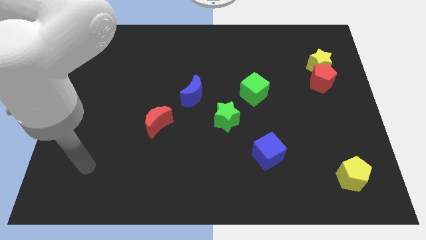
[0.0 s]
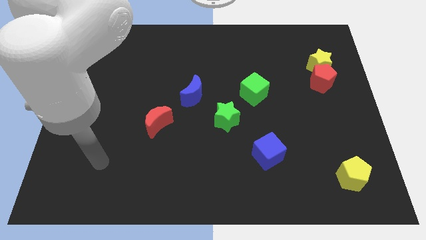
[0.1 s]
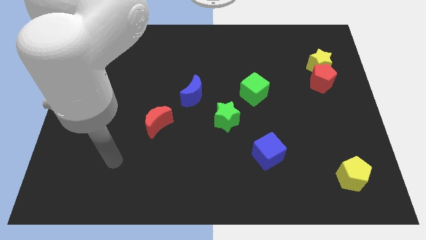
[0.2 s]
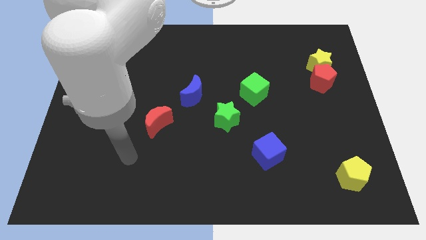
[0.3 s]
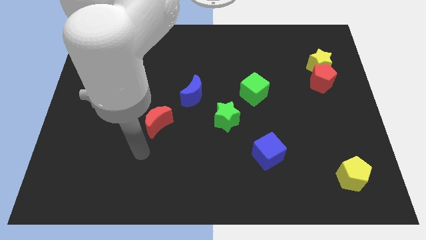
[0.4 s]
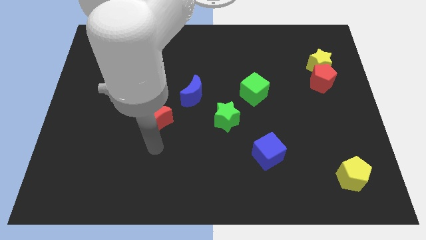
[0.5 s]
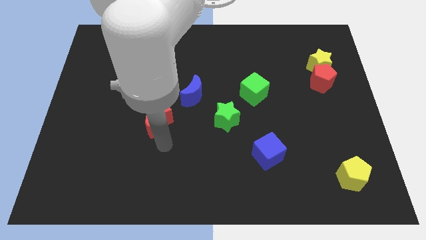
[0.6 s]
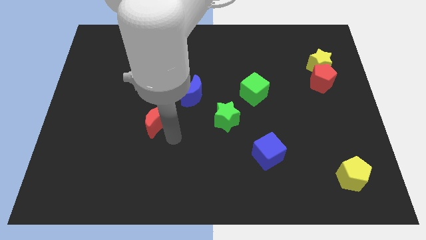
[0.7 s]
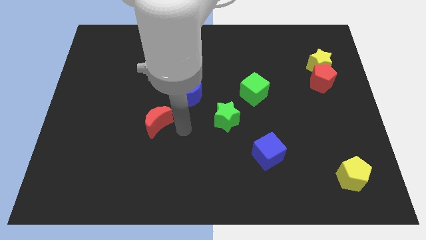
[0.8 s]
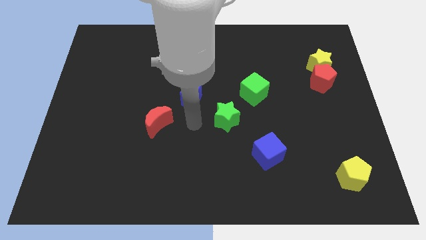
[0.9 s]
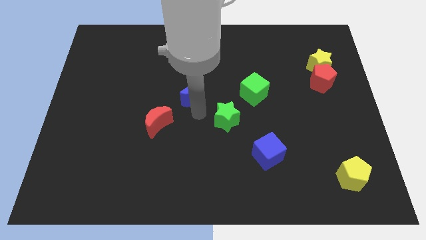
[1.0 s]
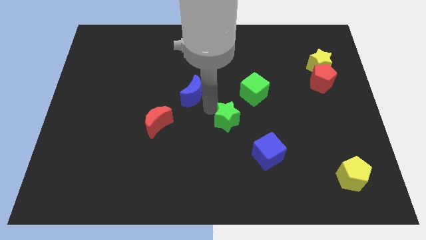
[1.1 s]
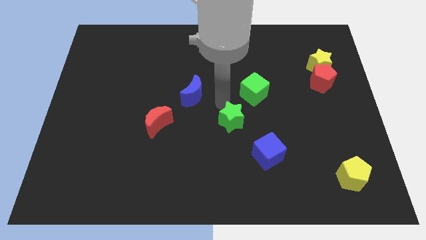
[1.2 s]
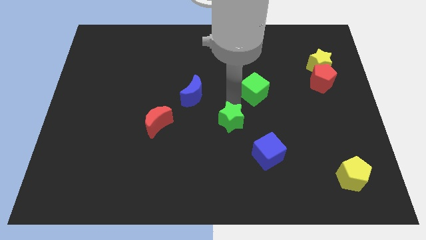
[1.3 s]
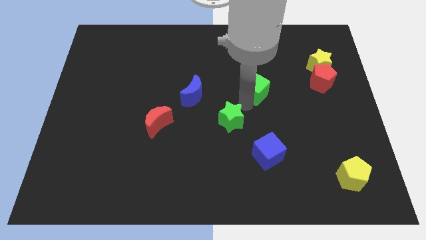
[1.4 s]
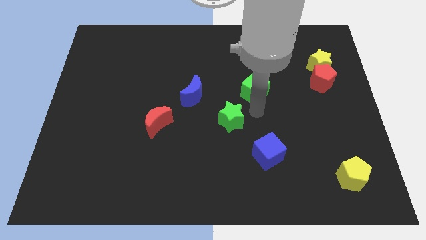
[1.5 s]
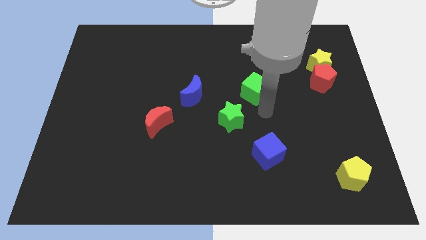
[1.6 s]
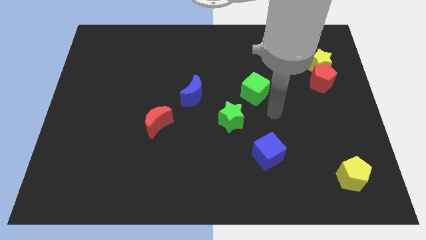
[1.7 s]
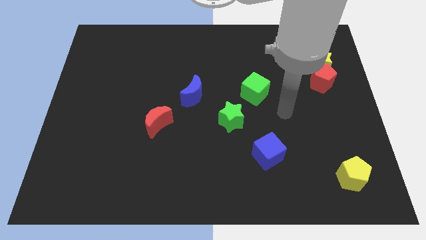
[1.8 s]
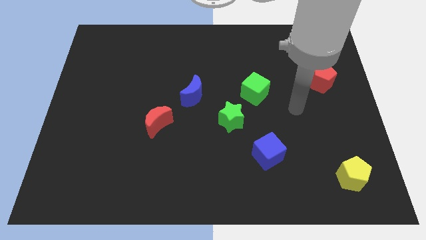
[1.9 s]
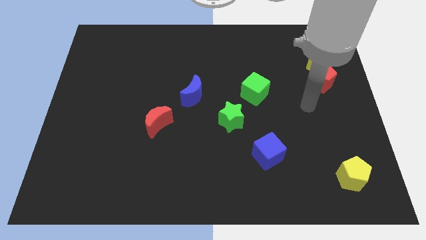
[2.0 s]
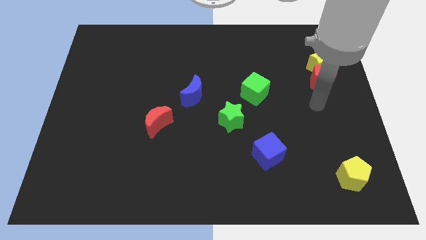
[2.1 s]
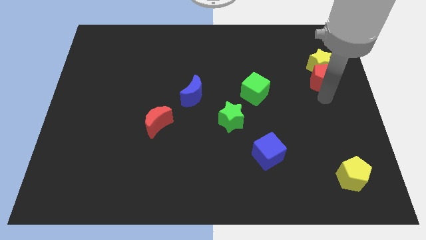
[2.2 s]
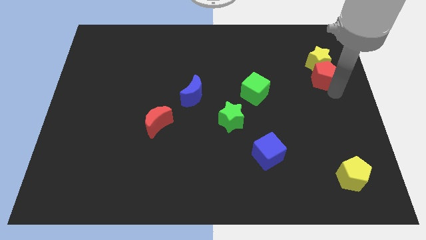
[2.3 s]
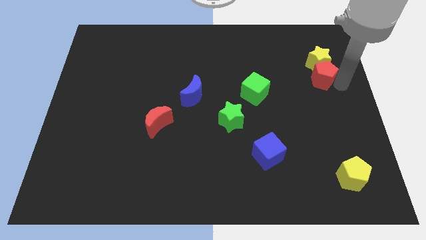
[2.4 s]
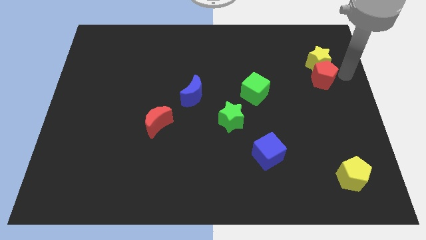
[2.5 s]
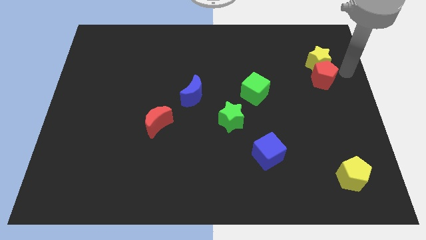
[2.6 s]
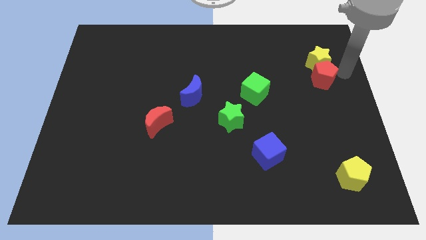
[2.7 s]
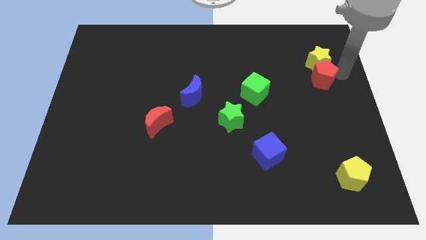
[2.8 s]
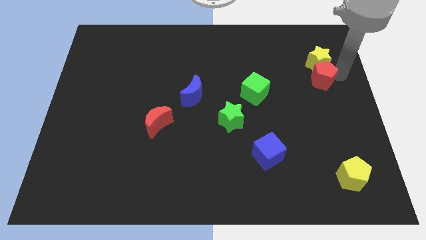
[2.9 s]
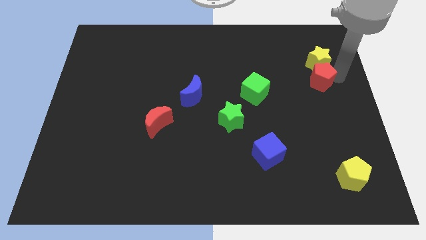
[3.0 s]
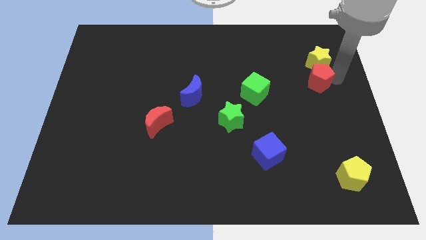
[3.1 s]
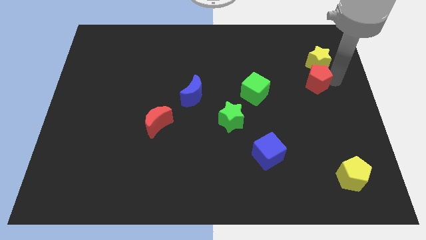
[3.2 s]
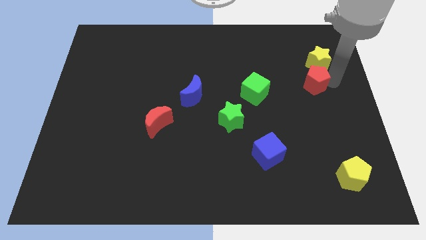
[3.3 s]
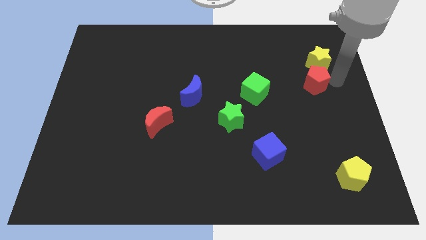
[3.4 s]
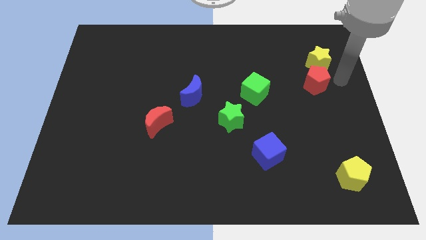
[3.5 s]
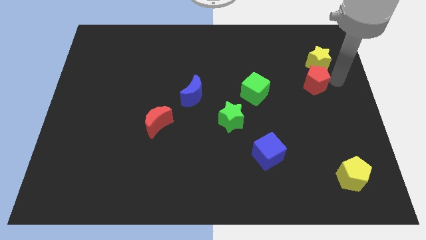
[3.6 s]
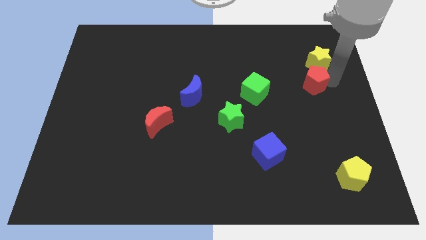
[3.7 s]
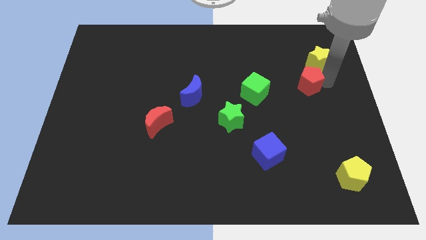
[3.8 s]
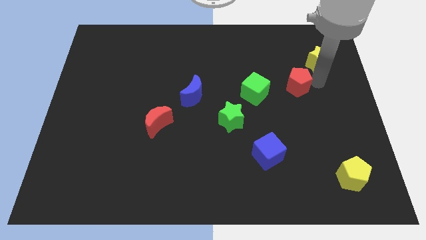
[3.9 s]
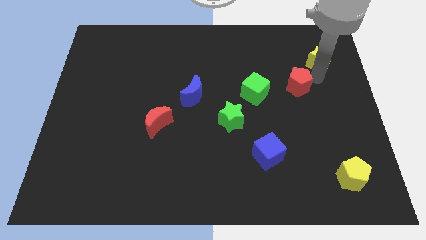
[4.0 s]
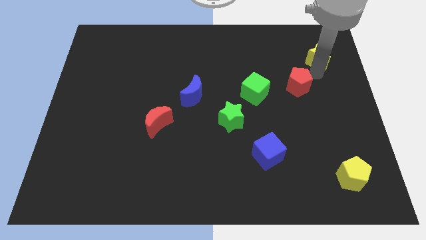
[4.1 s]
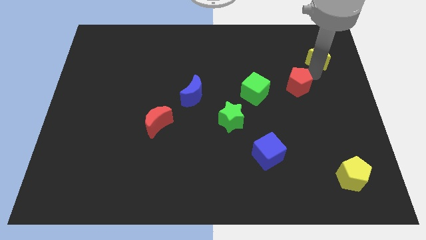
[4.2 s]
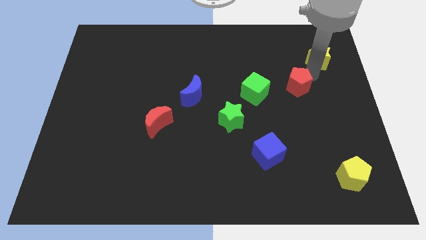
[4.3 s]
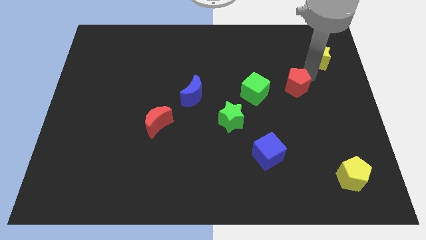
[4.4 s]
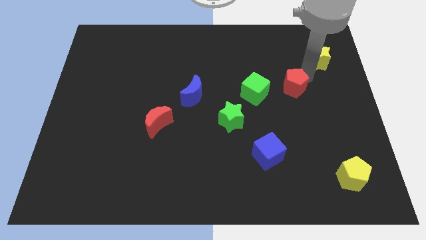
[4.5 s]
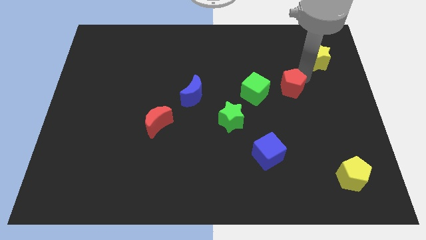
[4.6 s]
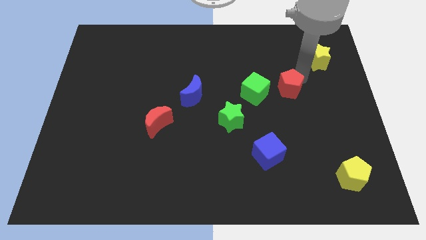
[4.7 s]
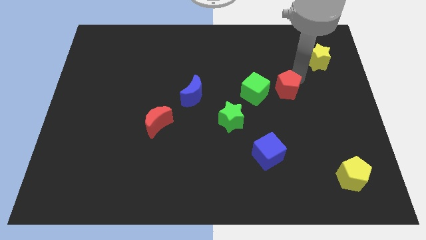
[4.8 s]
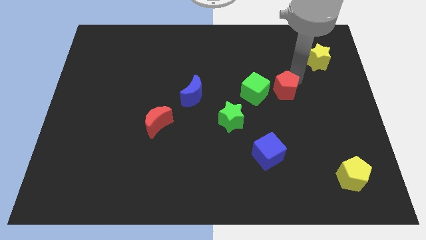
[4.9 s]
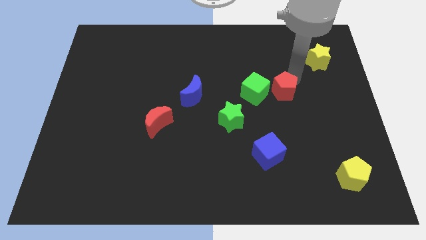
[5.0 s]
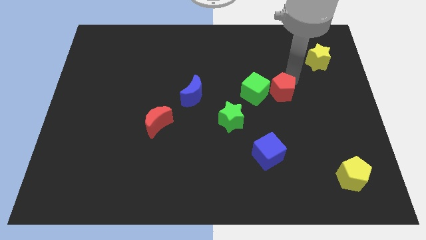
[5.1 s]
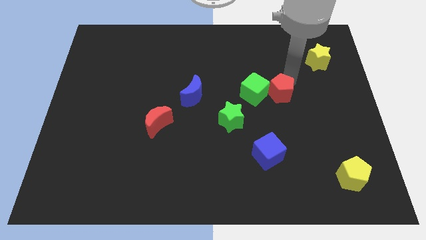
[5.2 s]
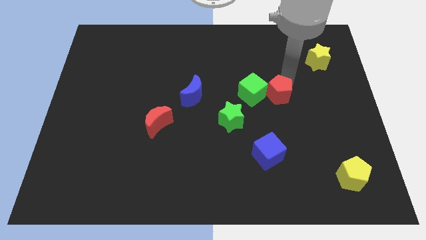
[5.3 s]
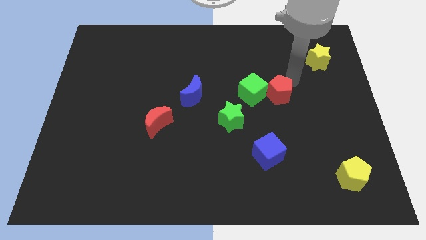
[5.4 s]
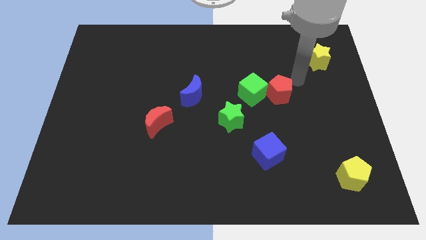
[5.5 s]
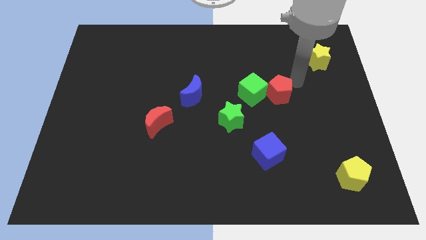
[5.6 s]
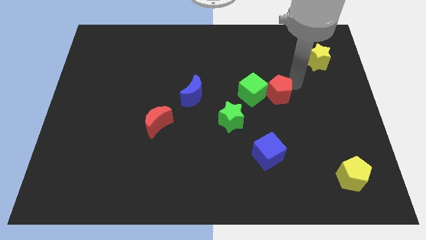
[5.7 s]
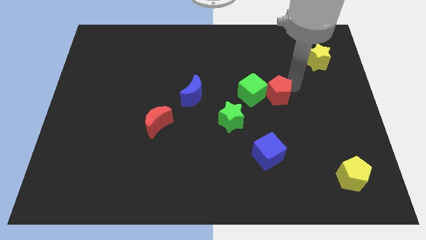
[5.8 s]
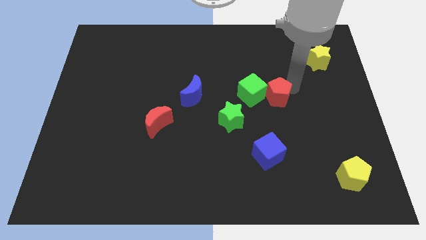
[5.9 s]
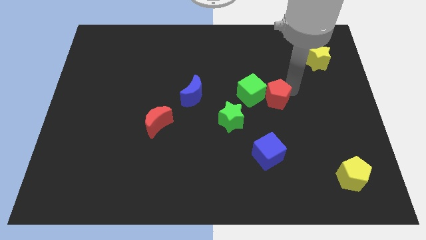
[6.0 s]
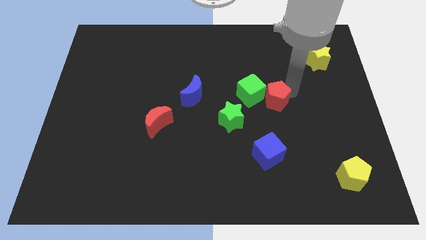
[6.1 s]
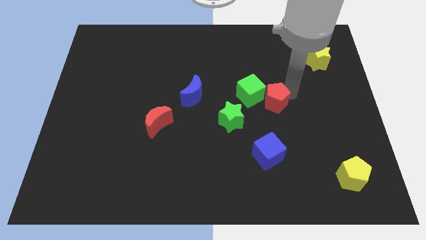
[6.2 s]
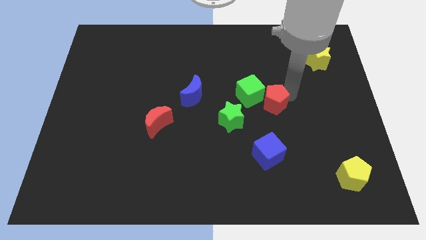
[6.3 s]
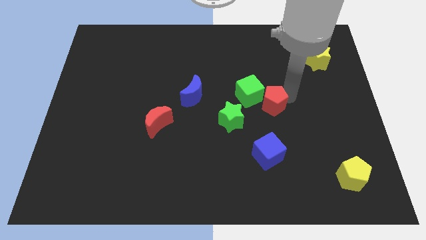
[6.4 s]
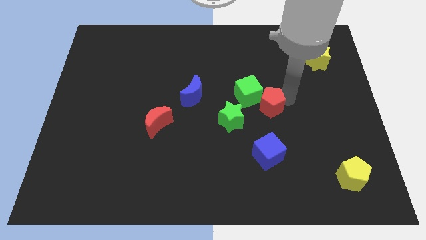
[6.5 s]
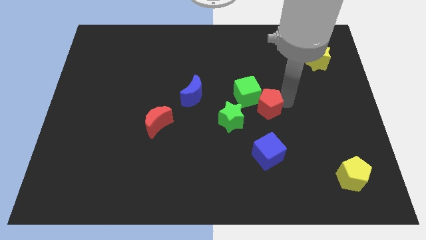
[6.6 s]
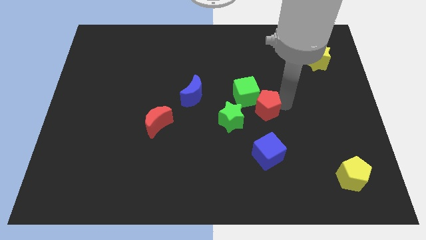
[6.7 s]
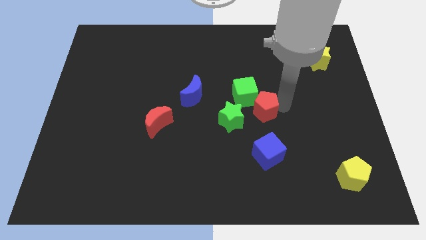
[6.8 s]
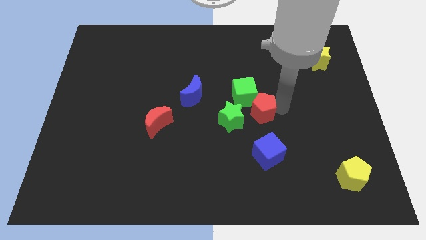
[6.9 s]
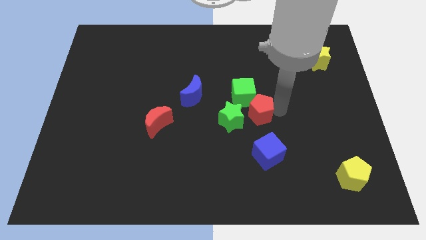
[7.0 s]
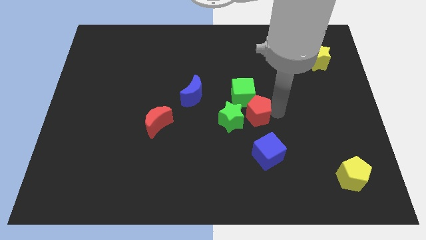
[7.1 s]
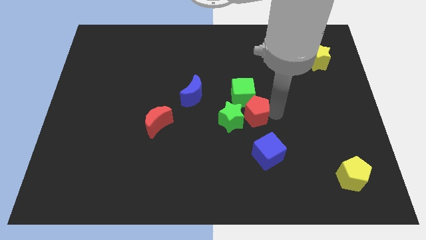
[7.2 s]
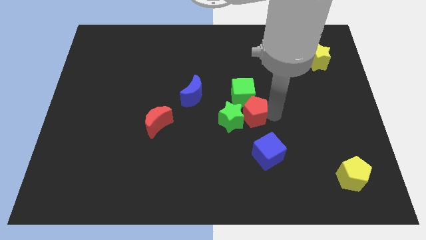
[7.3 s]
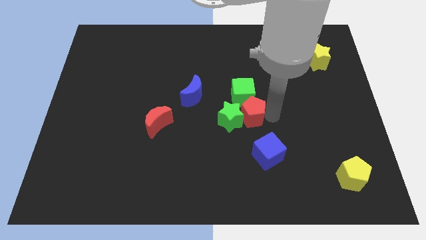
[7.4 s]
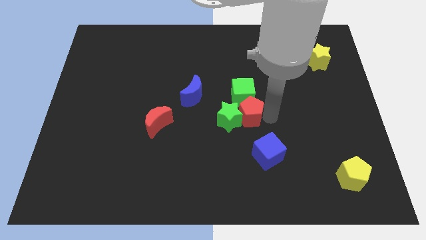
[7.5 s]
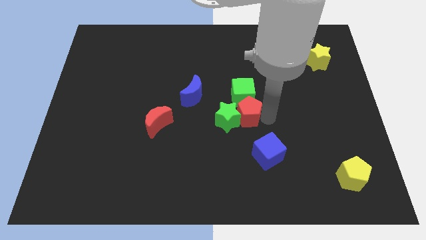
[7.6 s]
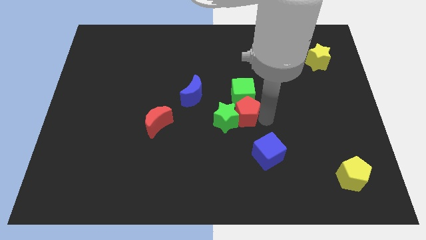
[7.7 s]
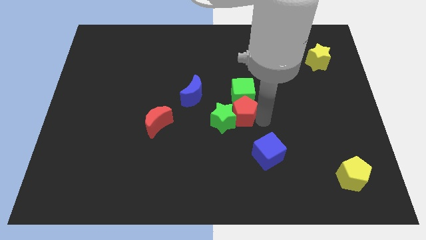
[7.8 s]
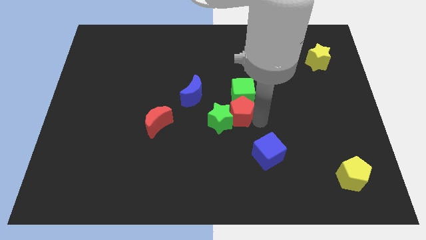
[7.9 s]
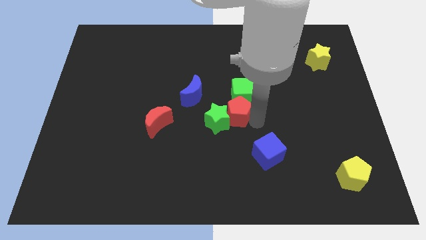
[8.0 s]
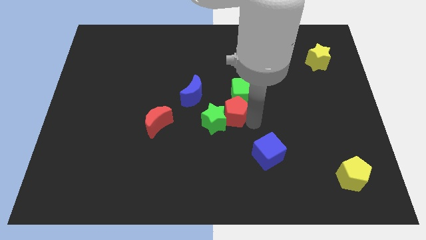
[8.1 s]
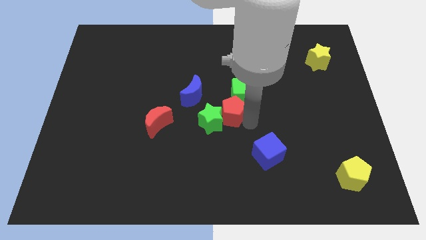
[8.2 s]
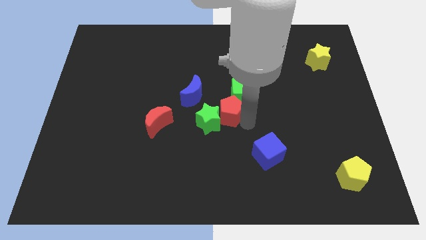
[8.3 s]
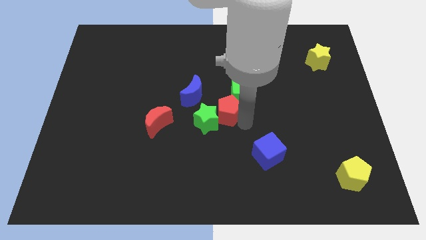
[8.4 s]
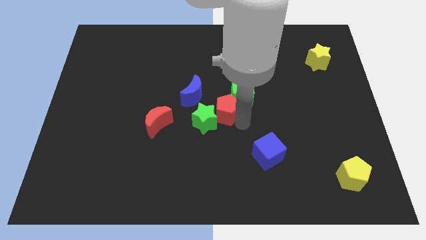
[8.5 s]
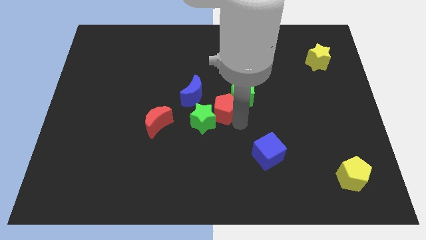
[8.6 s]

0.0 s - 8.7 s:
slide the red pentagon to the right of the red moon
